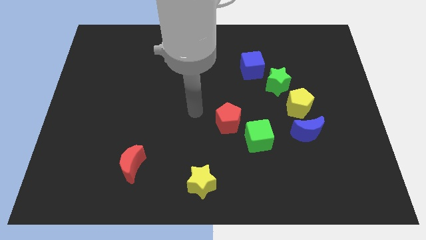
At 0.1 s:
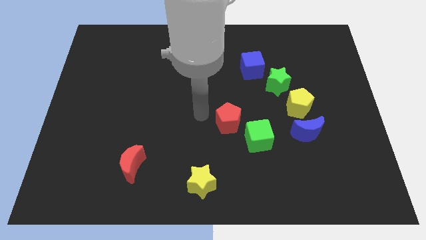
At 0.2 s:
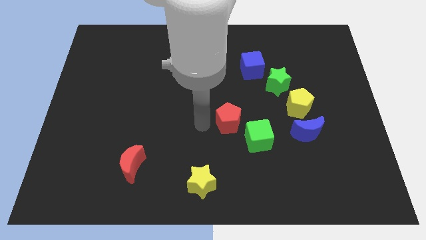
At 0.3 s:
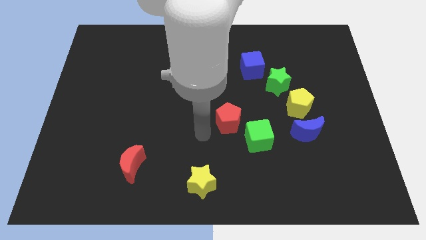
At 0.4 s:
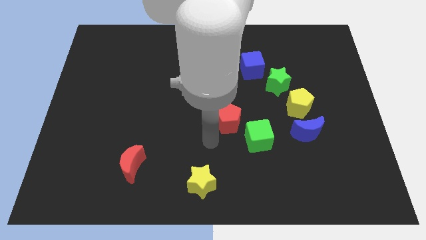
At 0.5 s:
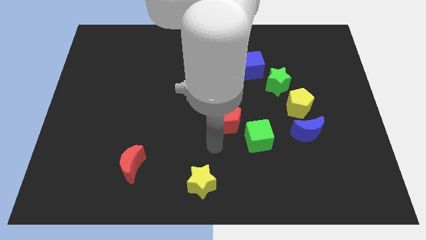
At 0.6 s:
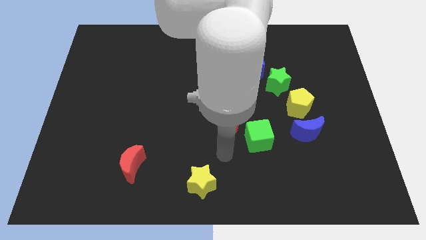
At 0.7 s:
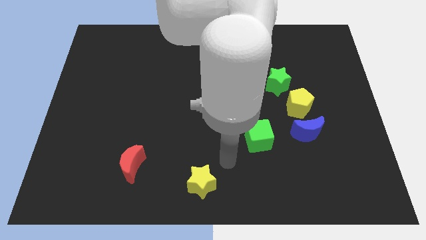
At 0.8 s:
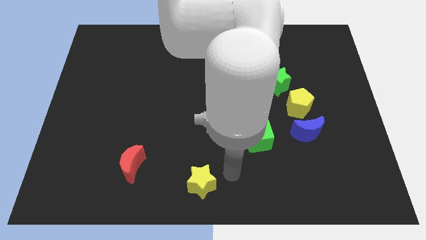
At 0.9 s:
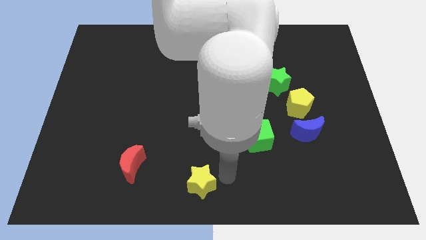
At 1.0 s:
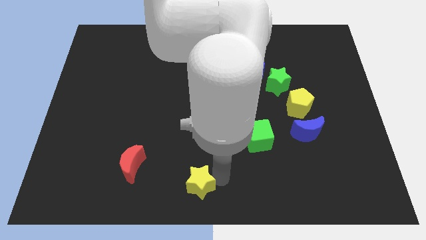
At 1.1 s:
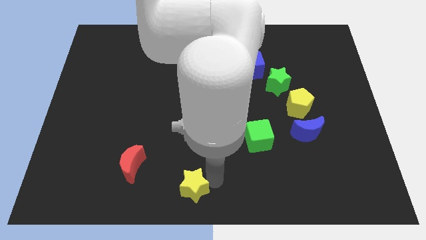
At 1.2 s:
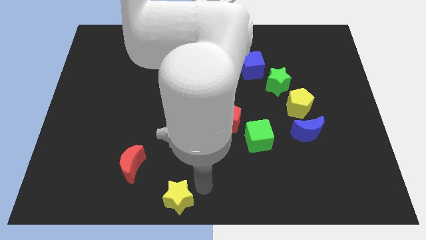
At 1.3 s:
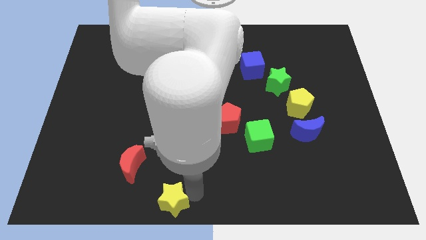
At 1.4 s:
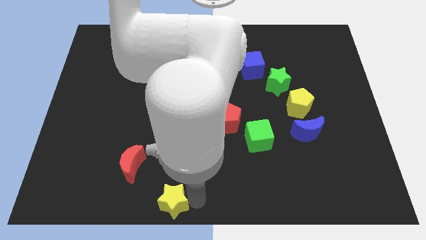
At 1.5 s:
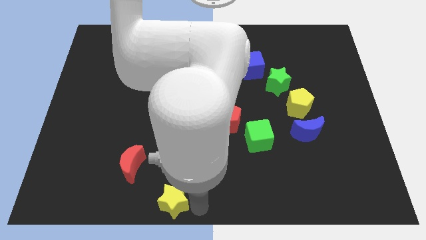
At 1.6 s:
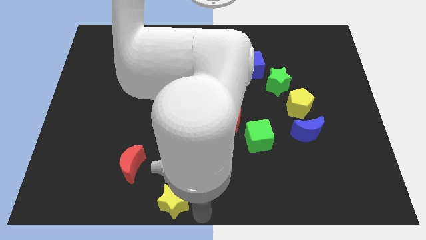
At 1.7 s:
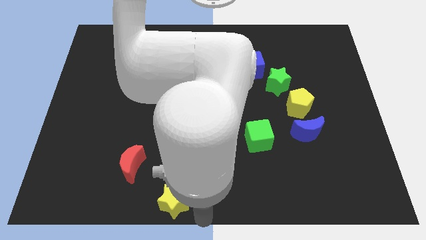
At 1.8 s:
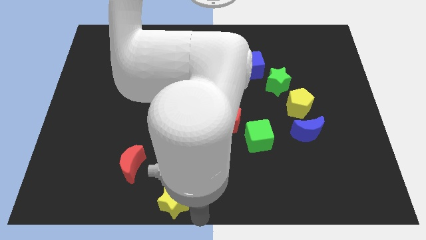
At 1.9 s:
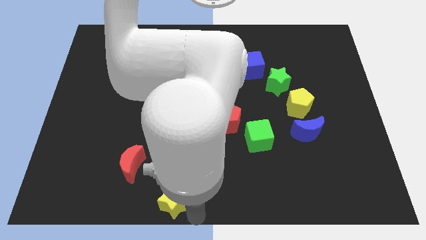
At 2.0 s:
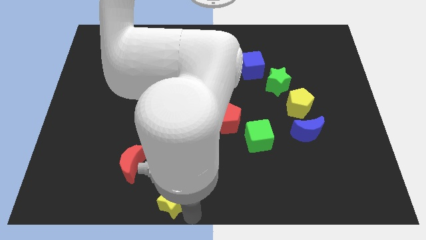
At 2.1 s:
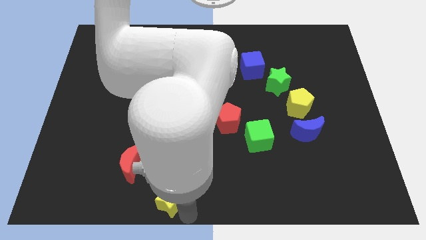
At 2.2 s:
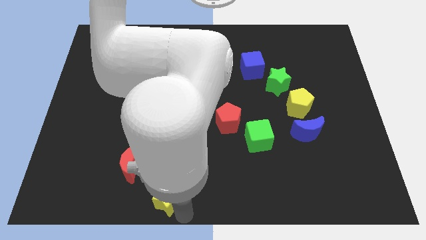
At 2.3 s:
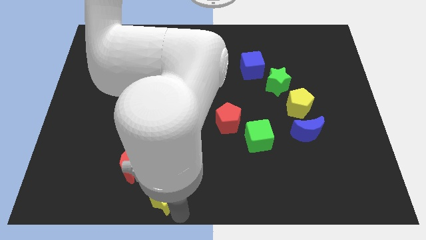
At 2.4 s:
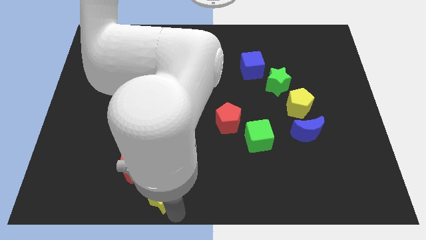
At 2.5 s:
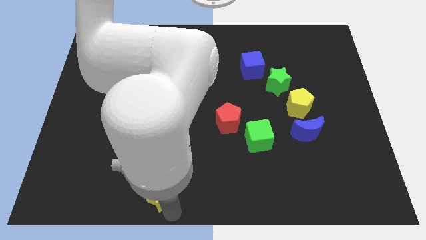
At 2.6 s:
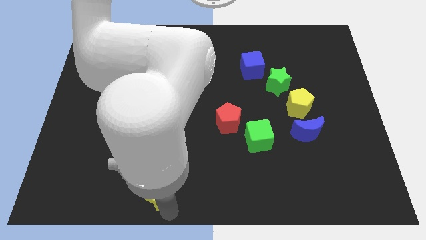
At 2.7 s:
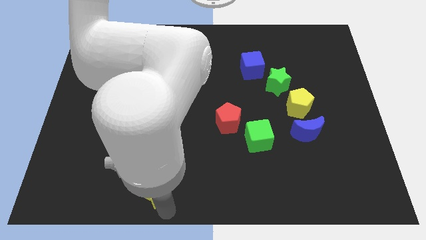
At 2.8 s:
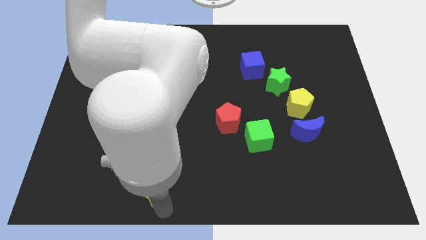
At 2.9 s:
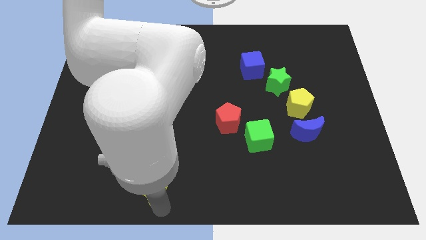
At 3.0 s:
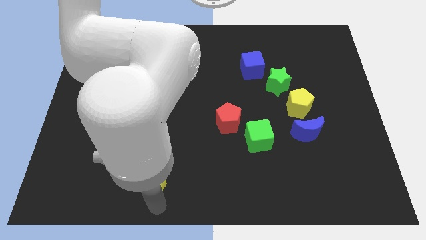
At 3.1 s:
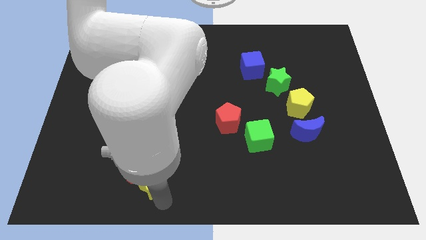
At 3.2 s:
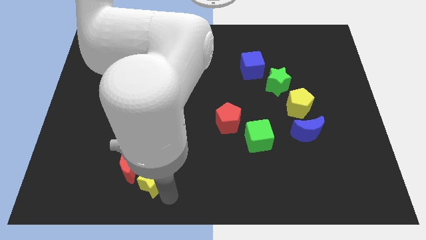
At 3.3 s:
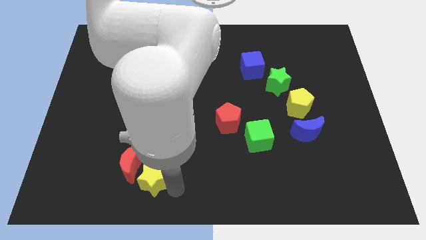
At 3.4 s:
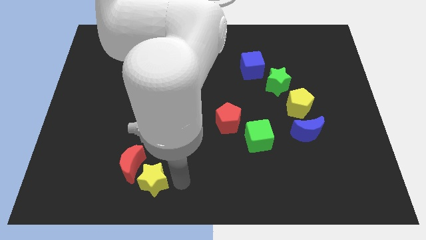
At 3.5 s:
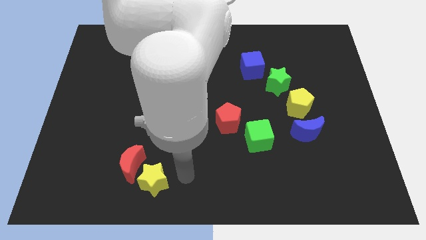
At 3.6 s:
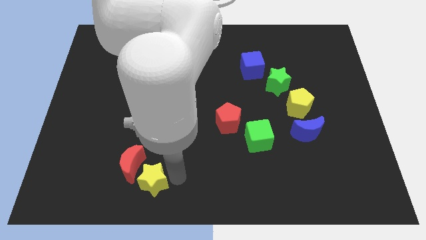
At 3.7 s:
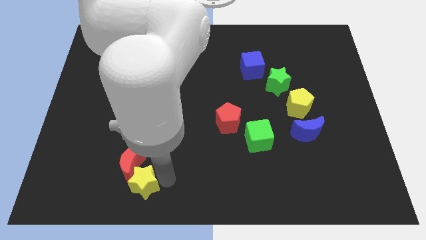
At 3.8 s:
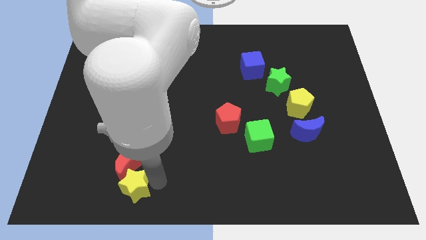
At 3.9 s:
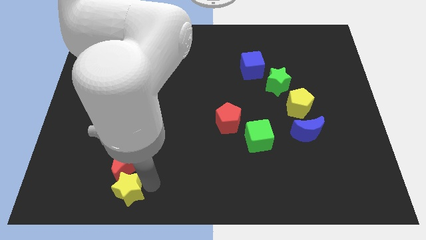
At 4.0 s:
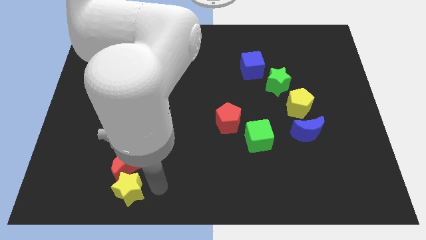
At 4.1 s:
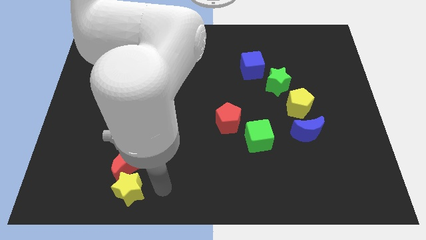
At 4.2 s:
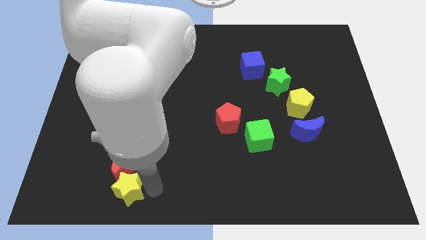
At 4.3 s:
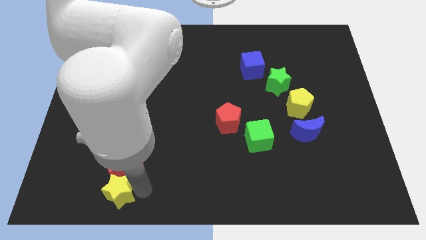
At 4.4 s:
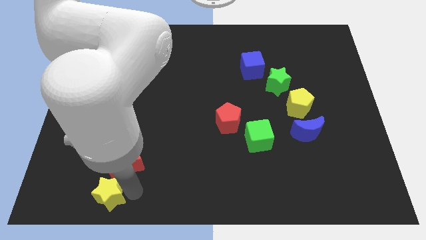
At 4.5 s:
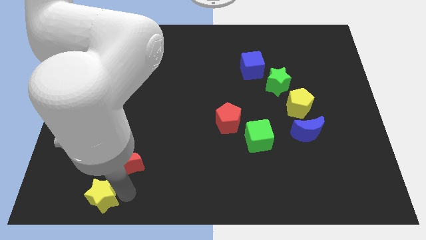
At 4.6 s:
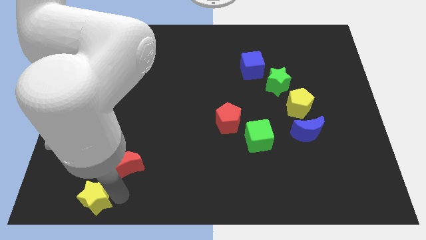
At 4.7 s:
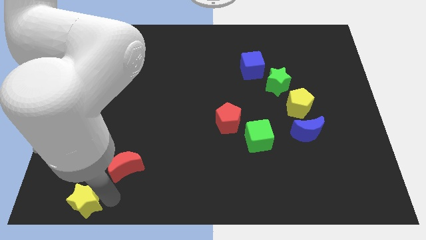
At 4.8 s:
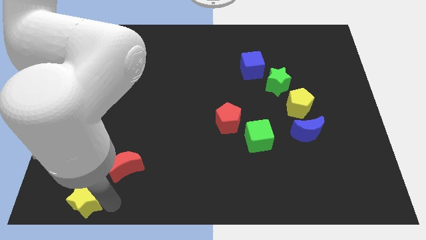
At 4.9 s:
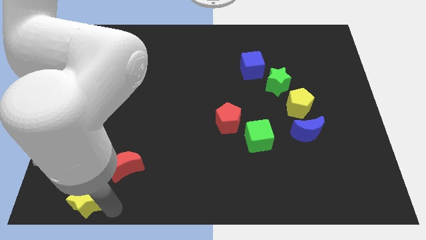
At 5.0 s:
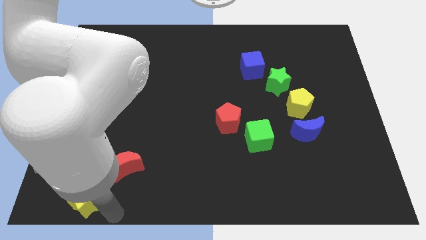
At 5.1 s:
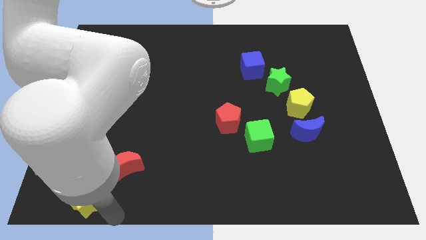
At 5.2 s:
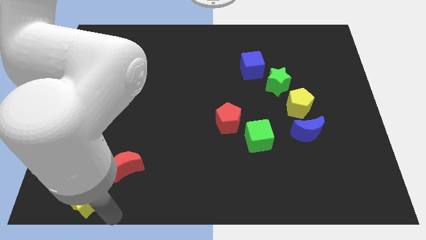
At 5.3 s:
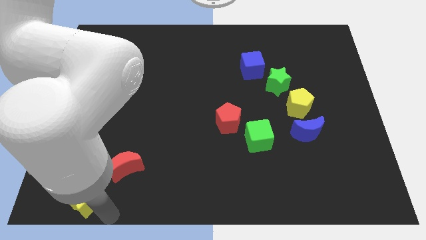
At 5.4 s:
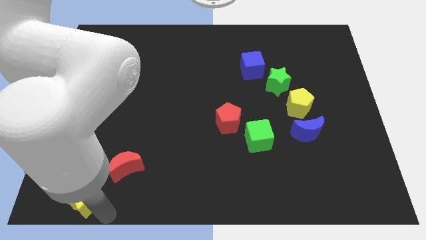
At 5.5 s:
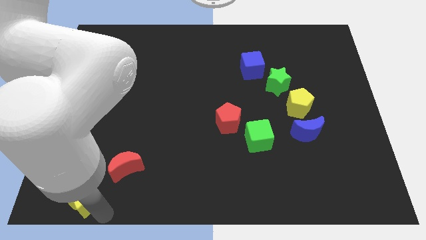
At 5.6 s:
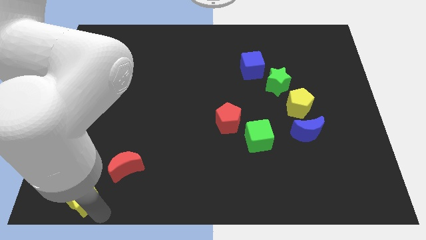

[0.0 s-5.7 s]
put the yellow star to the lower left corner
